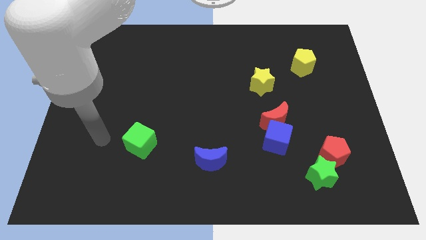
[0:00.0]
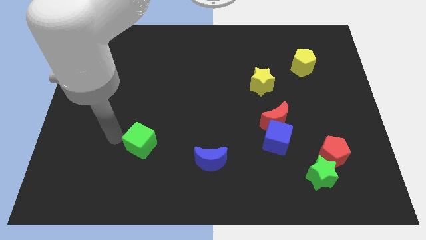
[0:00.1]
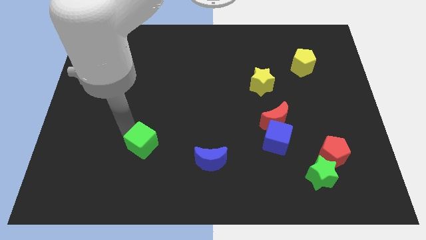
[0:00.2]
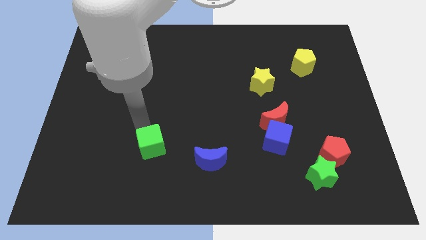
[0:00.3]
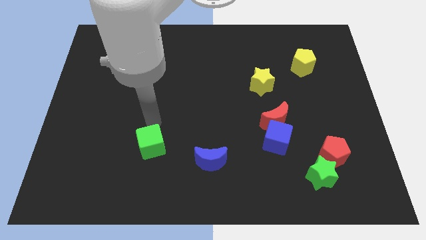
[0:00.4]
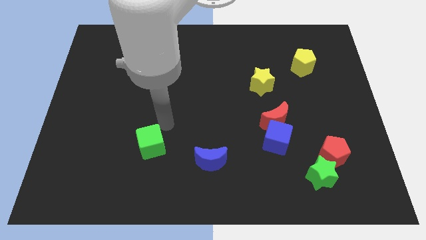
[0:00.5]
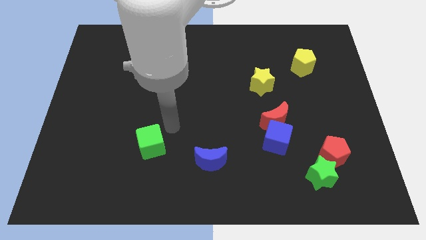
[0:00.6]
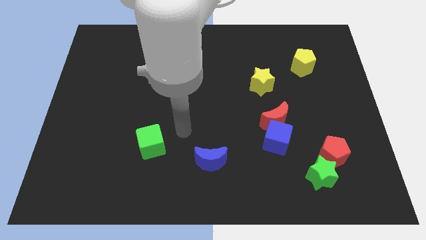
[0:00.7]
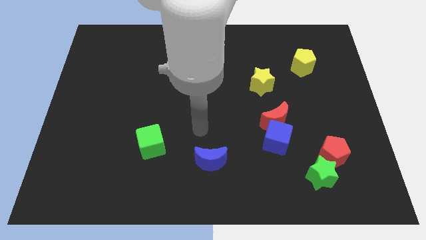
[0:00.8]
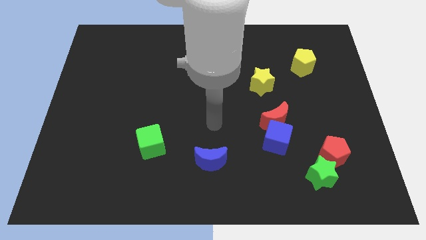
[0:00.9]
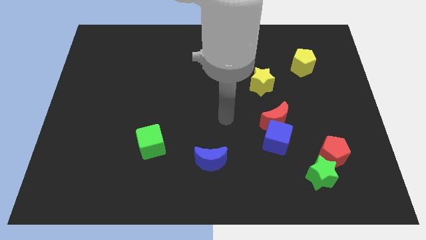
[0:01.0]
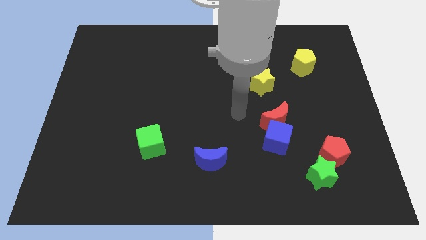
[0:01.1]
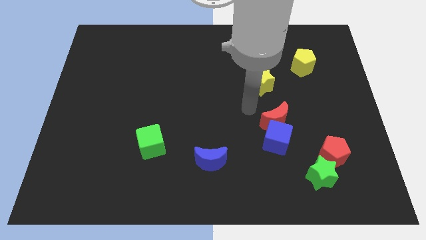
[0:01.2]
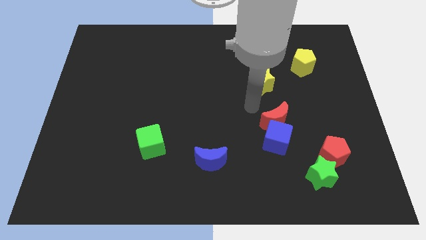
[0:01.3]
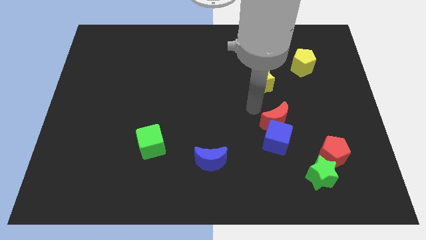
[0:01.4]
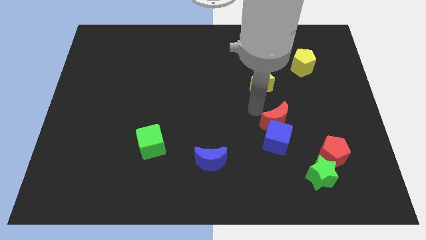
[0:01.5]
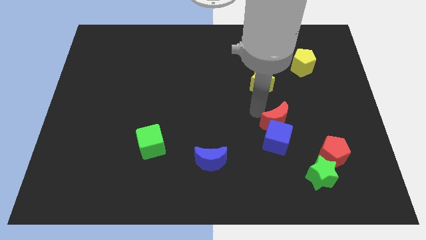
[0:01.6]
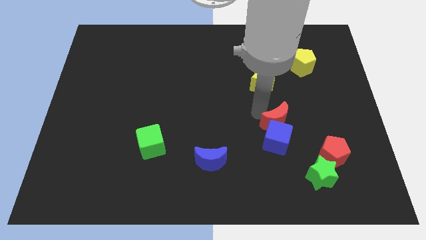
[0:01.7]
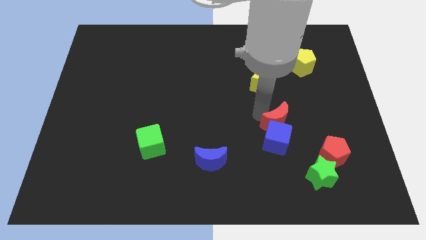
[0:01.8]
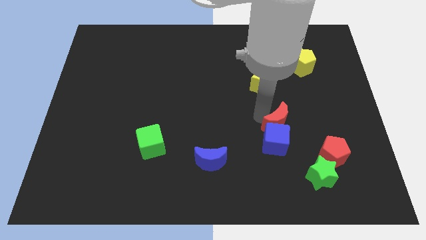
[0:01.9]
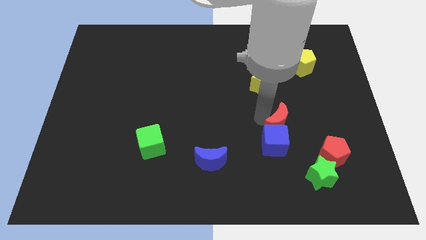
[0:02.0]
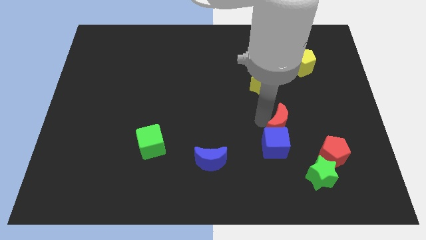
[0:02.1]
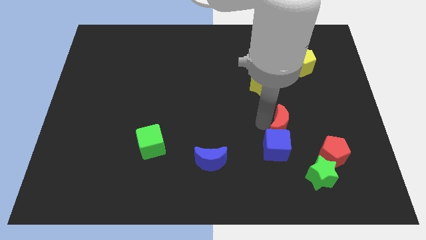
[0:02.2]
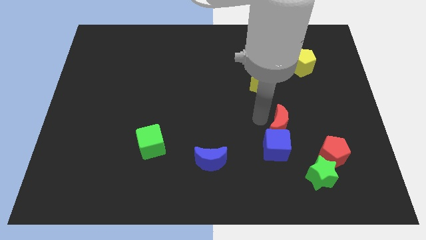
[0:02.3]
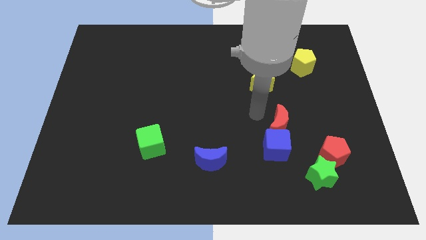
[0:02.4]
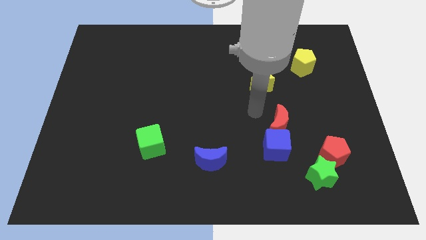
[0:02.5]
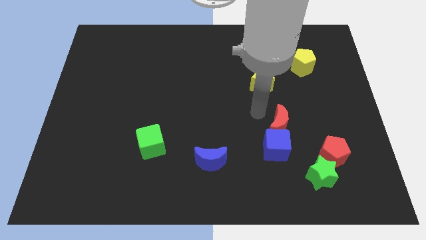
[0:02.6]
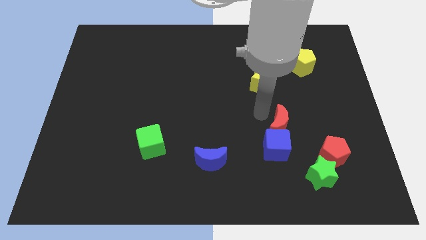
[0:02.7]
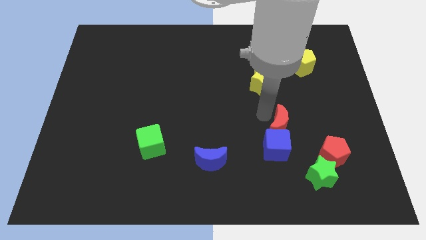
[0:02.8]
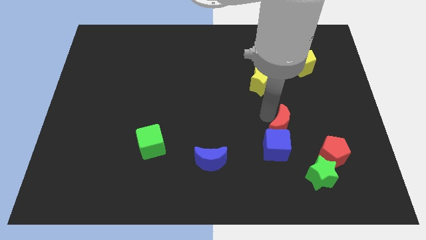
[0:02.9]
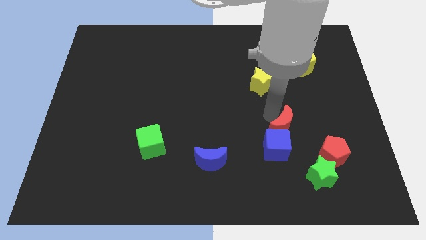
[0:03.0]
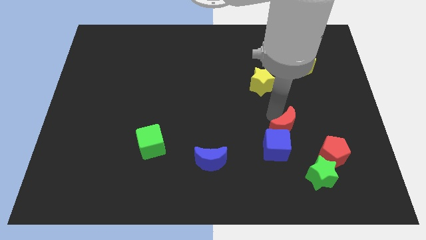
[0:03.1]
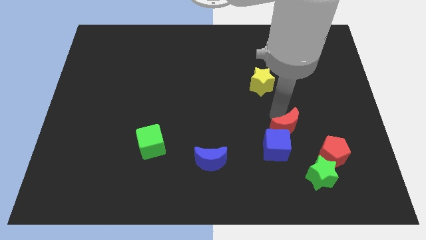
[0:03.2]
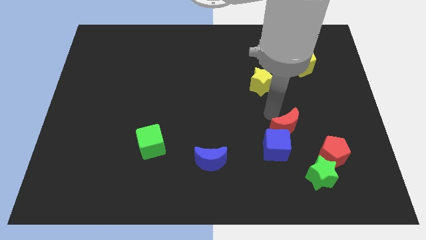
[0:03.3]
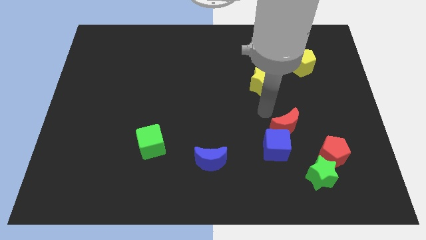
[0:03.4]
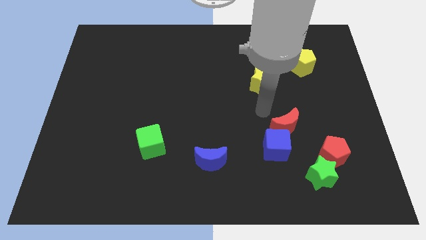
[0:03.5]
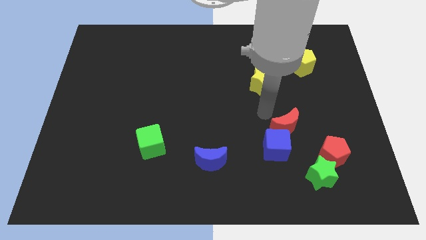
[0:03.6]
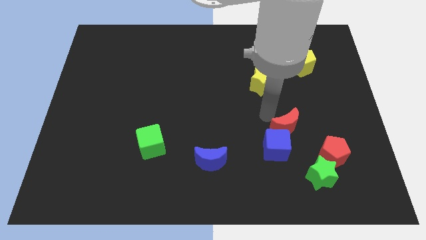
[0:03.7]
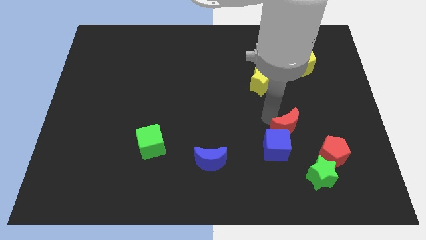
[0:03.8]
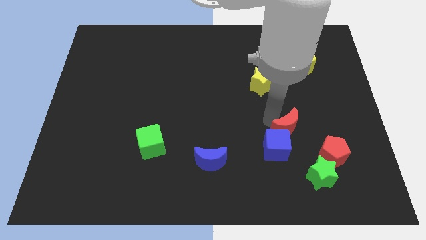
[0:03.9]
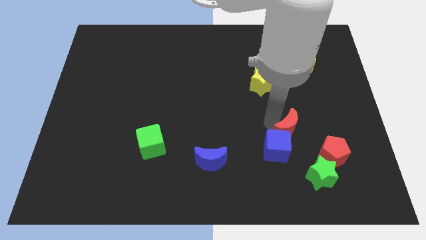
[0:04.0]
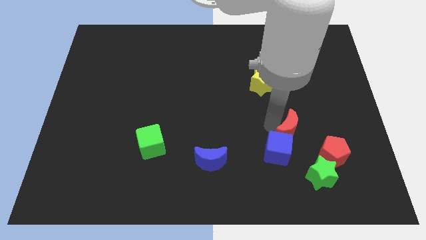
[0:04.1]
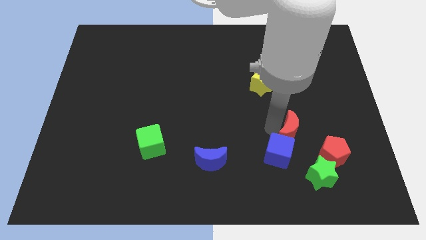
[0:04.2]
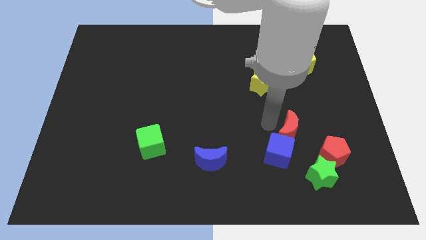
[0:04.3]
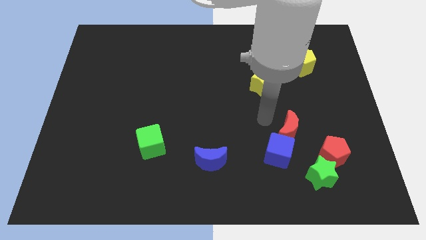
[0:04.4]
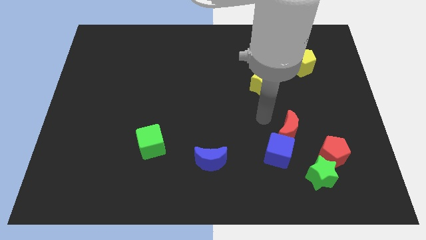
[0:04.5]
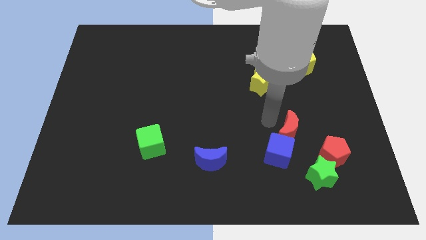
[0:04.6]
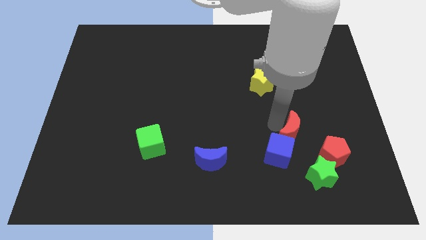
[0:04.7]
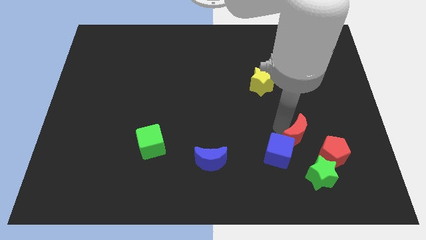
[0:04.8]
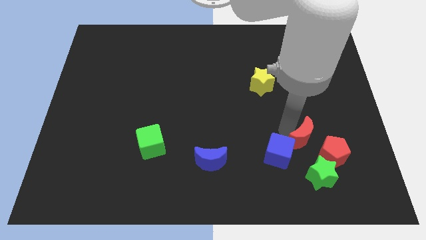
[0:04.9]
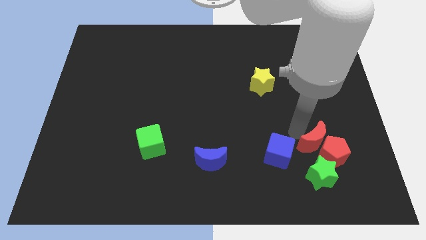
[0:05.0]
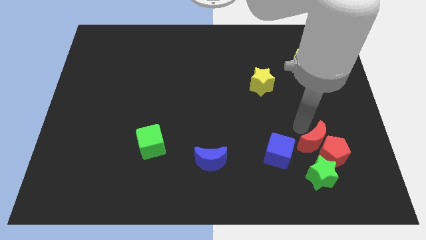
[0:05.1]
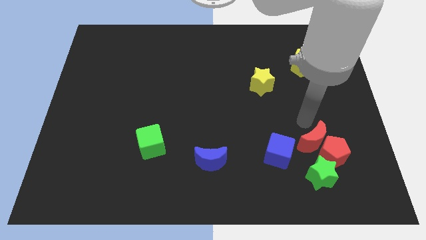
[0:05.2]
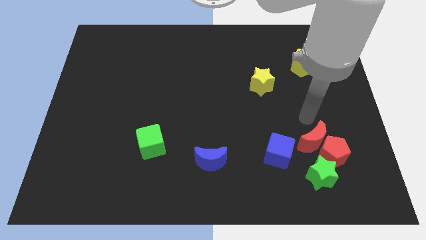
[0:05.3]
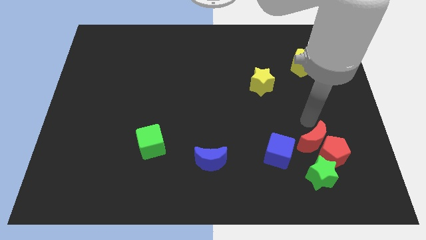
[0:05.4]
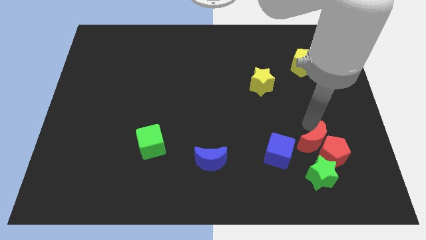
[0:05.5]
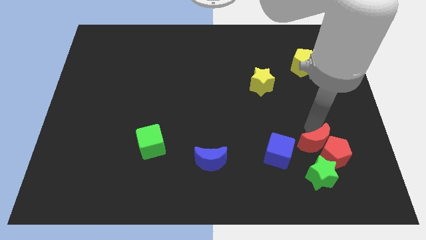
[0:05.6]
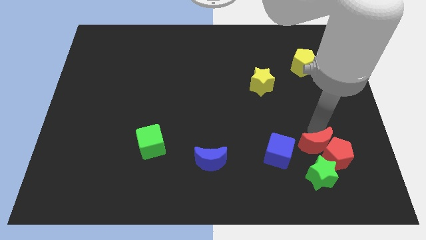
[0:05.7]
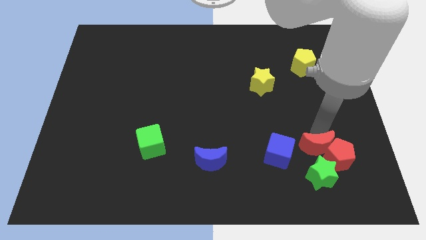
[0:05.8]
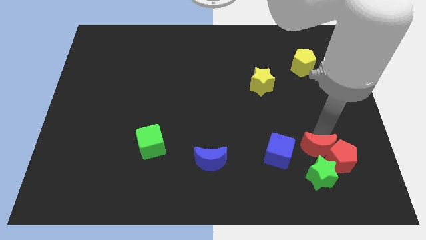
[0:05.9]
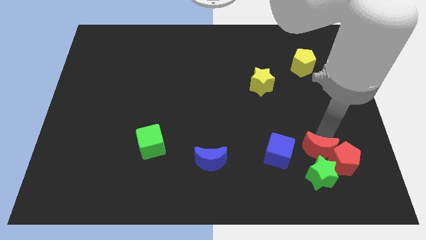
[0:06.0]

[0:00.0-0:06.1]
move the red moon to the green star
